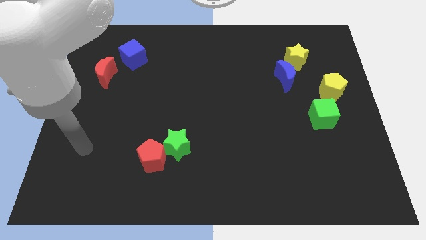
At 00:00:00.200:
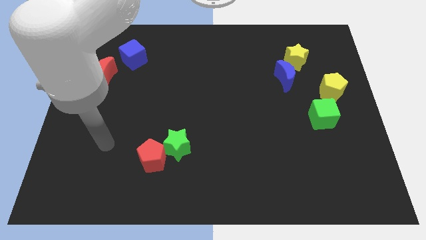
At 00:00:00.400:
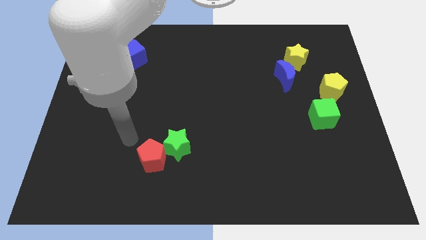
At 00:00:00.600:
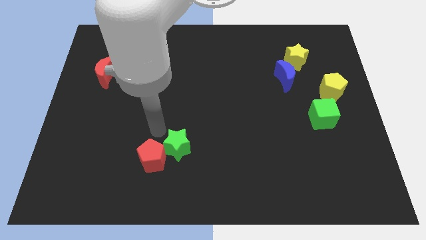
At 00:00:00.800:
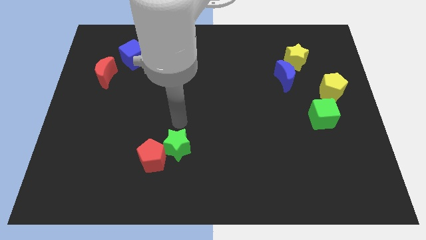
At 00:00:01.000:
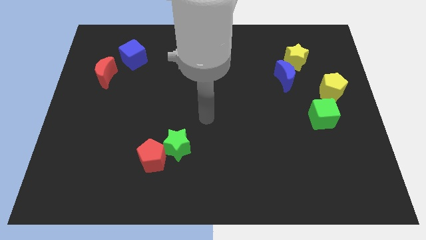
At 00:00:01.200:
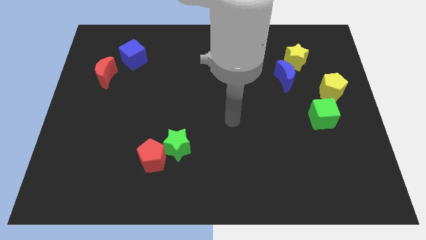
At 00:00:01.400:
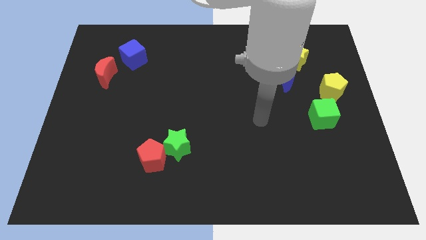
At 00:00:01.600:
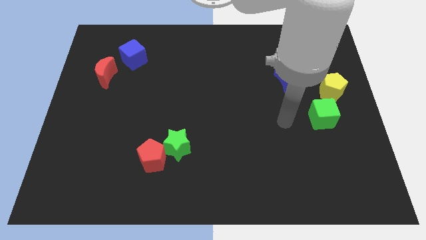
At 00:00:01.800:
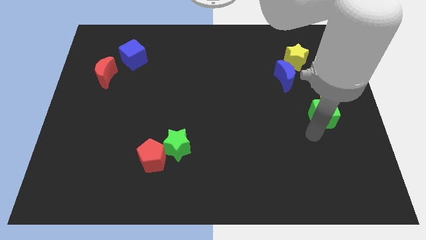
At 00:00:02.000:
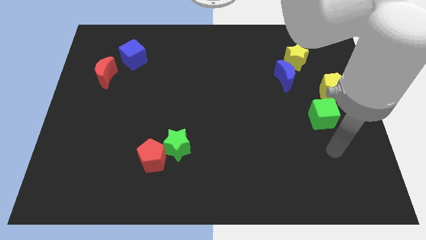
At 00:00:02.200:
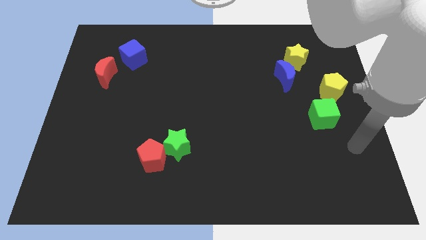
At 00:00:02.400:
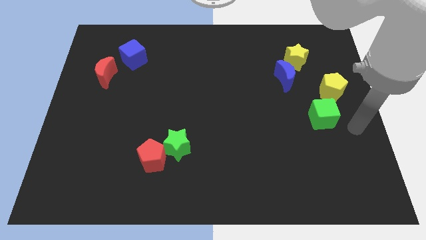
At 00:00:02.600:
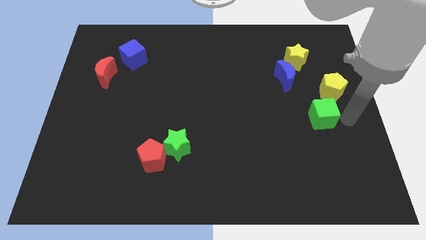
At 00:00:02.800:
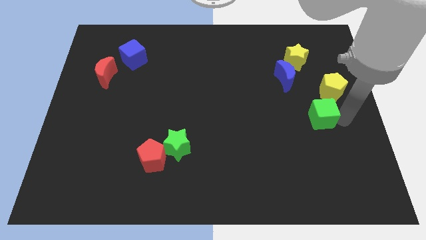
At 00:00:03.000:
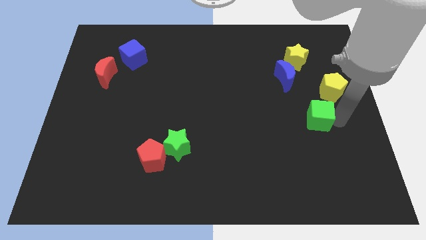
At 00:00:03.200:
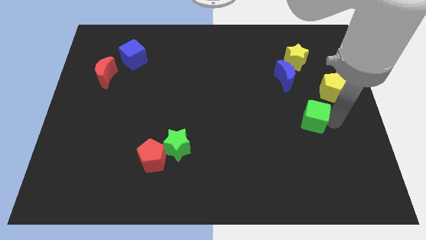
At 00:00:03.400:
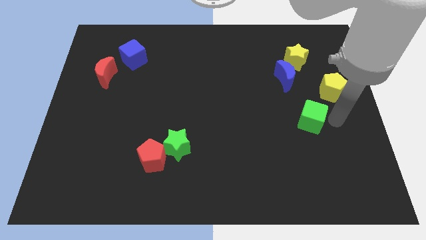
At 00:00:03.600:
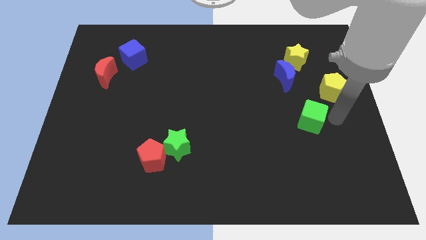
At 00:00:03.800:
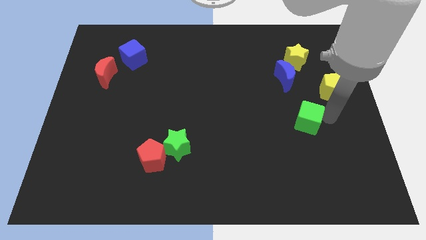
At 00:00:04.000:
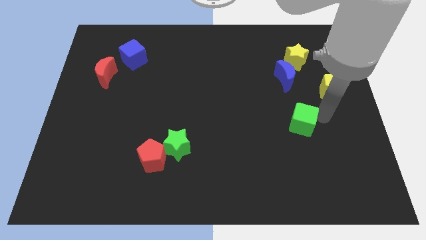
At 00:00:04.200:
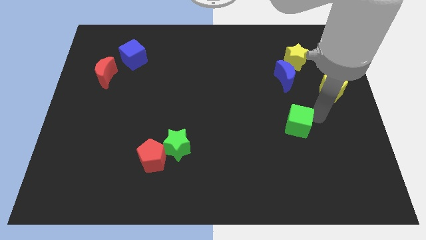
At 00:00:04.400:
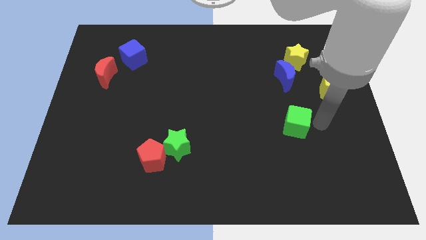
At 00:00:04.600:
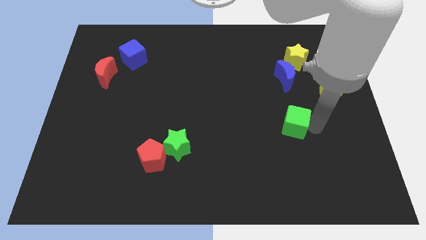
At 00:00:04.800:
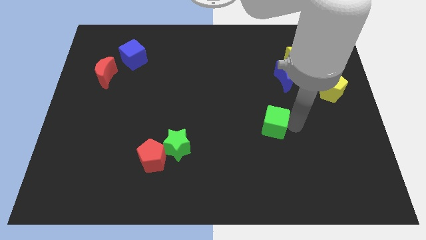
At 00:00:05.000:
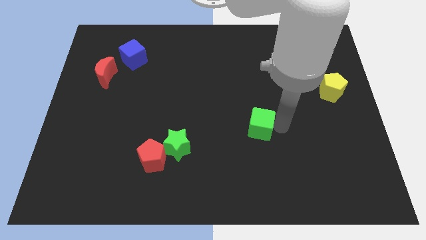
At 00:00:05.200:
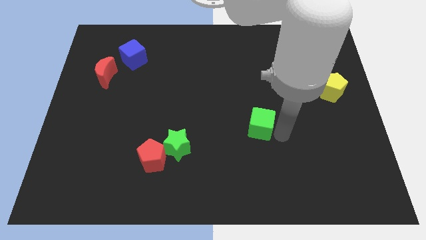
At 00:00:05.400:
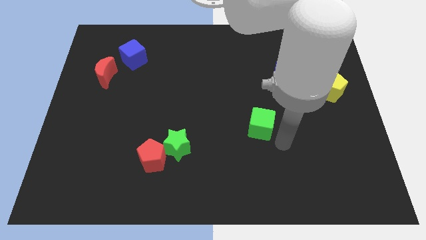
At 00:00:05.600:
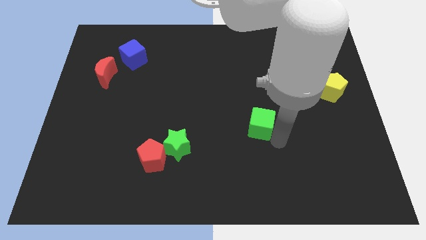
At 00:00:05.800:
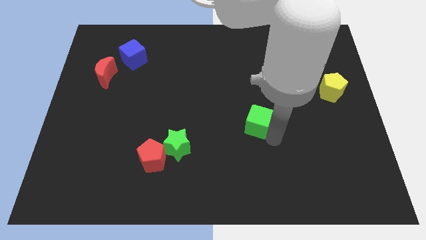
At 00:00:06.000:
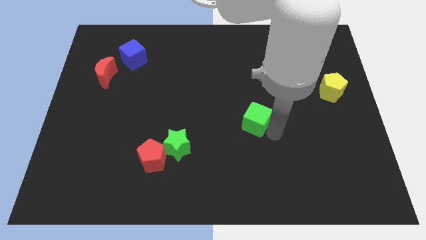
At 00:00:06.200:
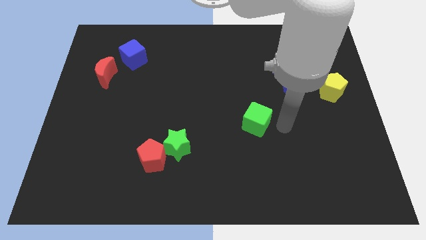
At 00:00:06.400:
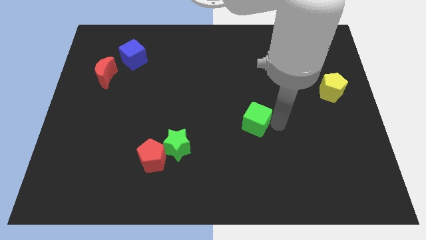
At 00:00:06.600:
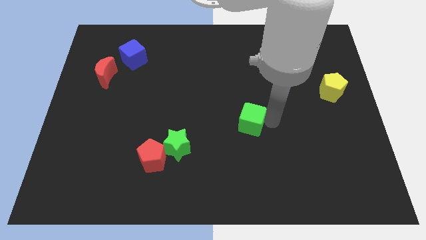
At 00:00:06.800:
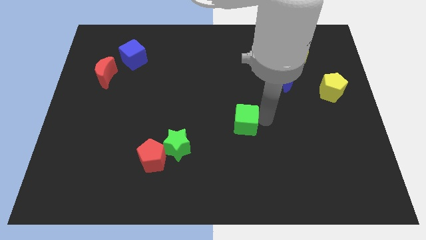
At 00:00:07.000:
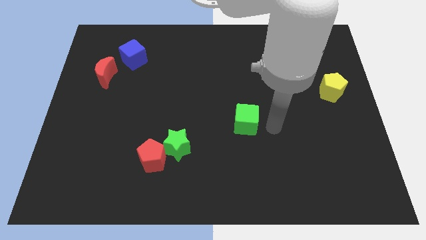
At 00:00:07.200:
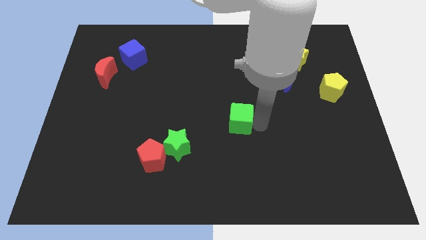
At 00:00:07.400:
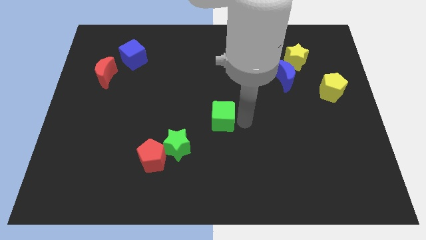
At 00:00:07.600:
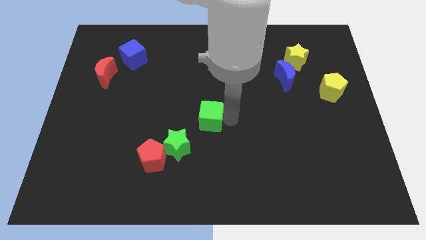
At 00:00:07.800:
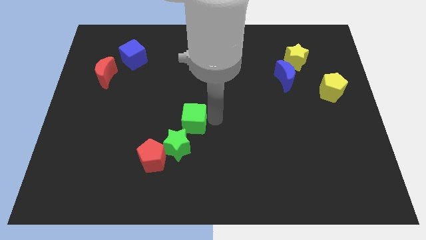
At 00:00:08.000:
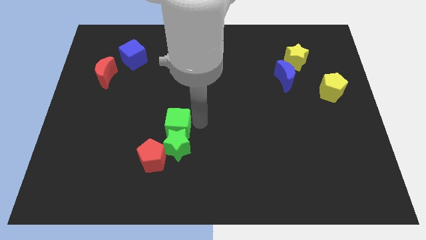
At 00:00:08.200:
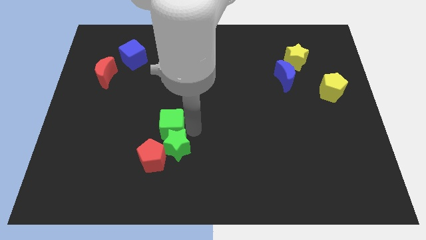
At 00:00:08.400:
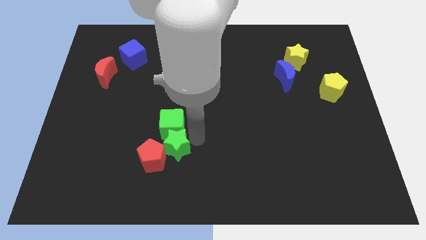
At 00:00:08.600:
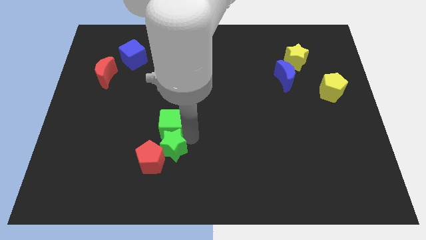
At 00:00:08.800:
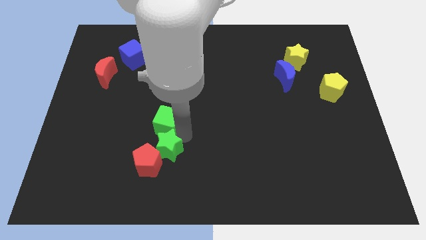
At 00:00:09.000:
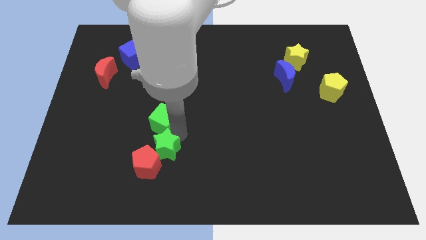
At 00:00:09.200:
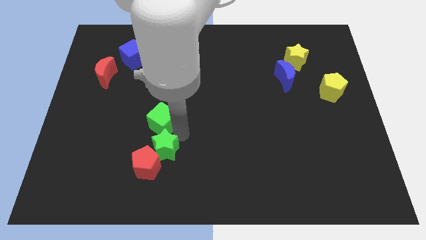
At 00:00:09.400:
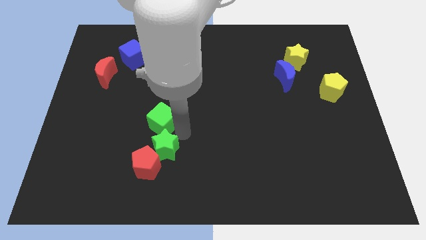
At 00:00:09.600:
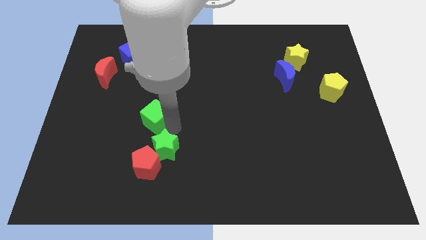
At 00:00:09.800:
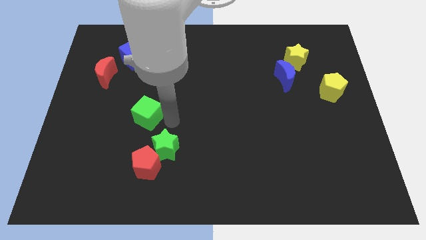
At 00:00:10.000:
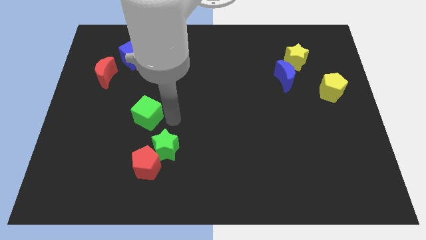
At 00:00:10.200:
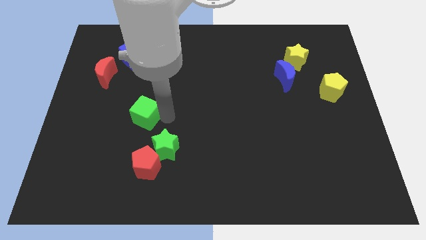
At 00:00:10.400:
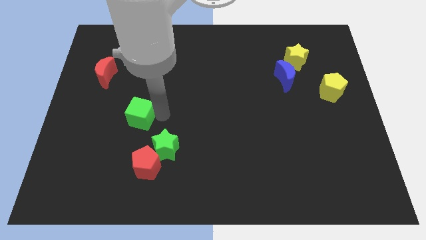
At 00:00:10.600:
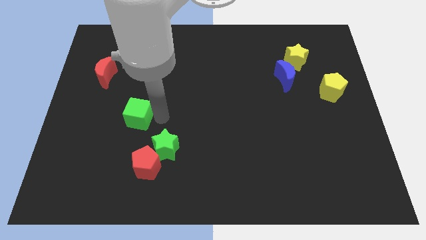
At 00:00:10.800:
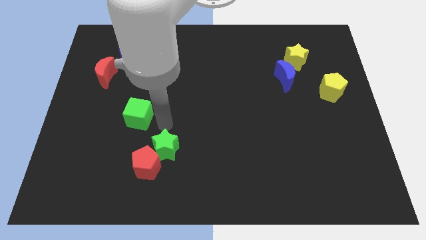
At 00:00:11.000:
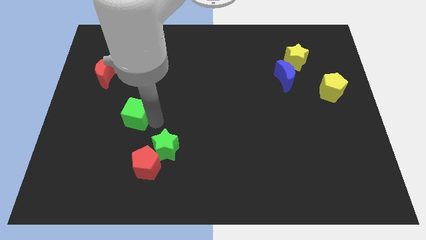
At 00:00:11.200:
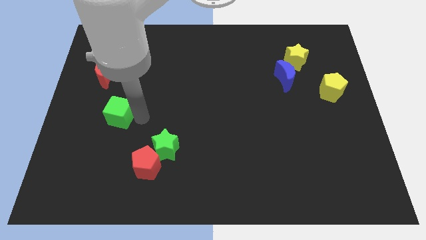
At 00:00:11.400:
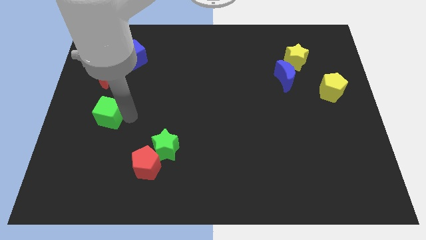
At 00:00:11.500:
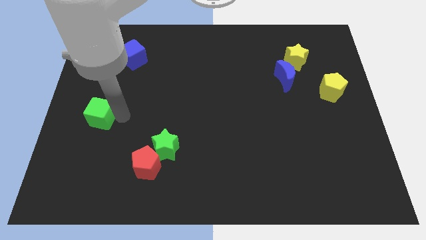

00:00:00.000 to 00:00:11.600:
push the green cube to the left side of the board

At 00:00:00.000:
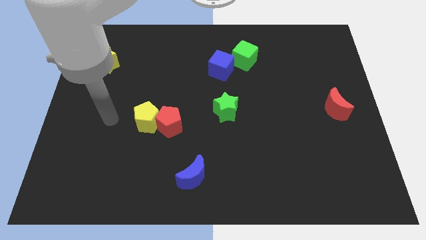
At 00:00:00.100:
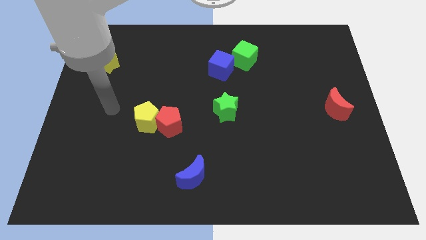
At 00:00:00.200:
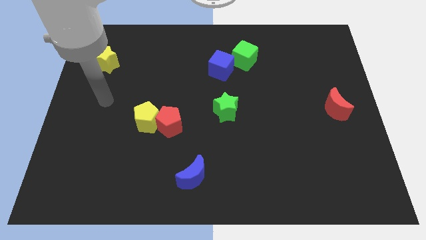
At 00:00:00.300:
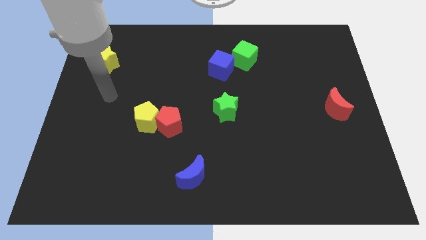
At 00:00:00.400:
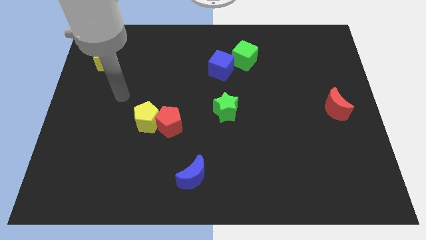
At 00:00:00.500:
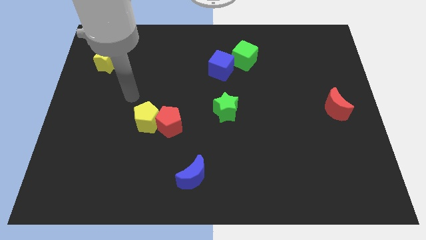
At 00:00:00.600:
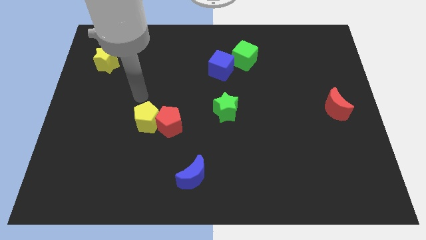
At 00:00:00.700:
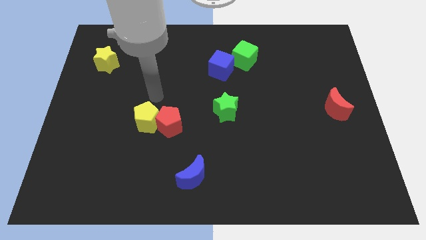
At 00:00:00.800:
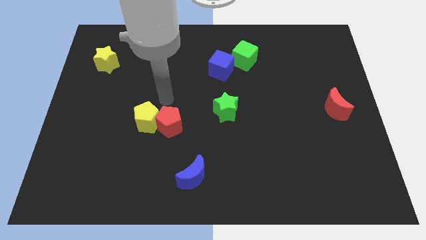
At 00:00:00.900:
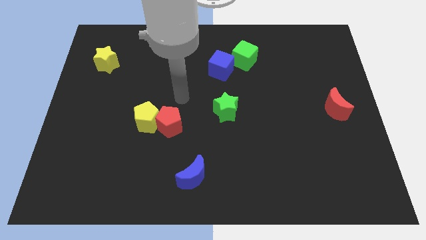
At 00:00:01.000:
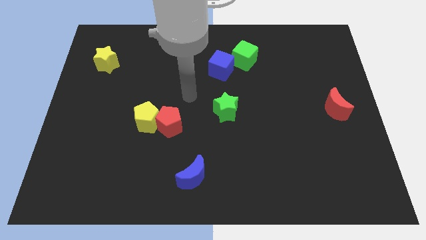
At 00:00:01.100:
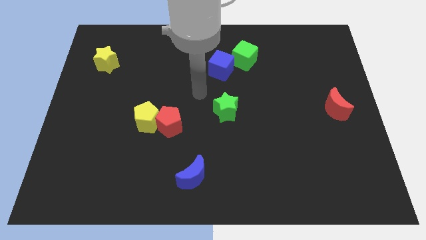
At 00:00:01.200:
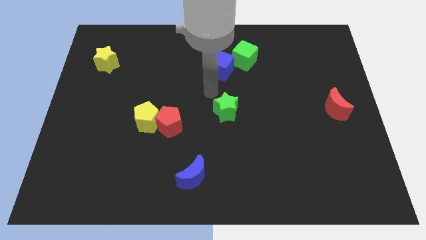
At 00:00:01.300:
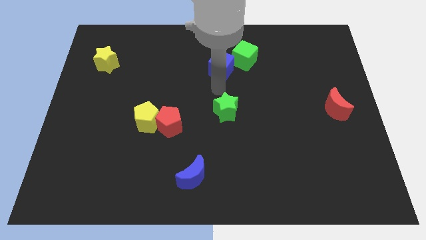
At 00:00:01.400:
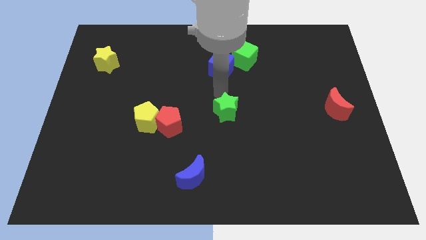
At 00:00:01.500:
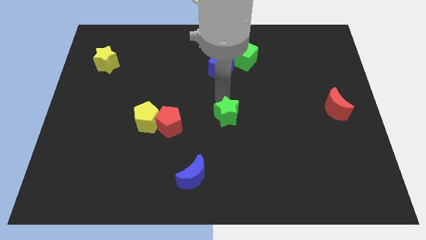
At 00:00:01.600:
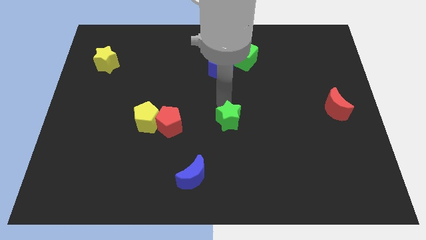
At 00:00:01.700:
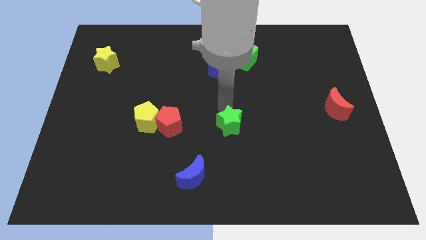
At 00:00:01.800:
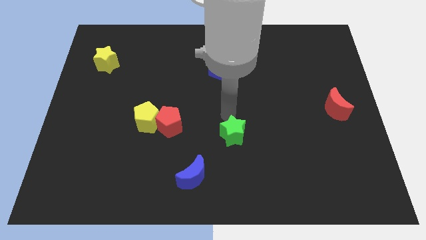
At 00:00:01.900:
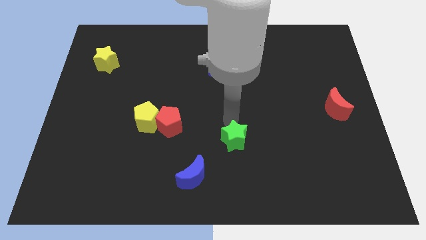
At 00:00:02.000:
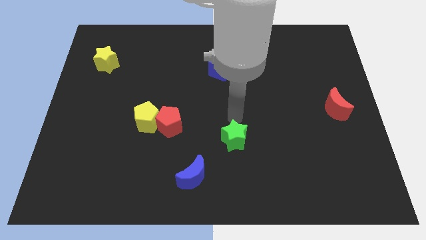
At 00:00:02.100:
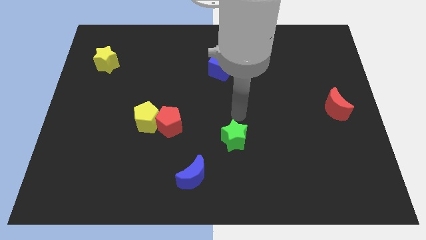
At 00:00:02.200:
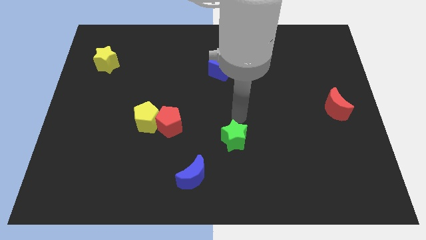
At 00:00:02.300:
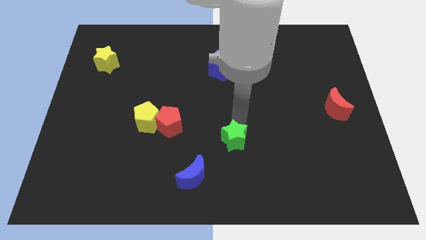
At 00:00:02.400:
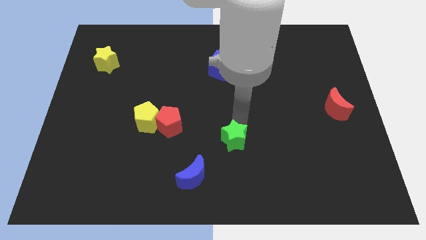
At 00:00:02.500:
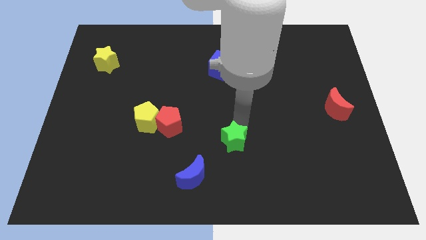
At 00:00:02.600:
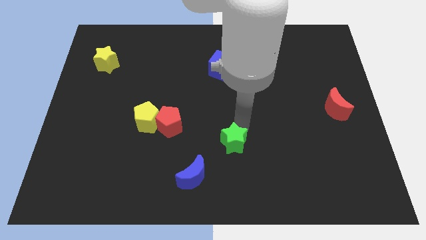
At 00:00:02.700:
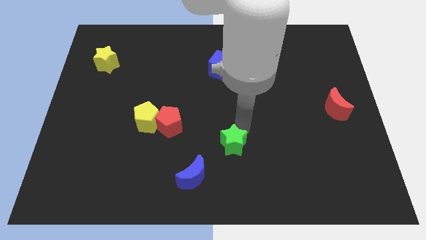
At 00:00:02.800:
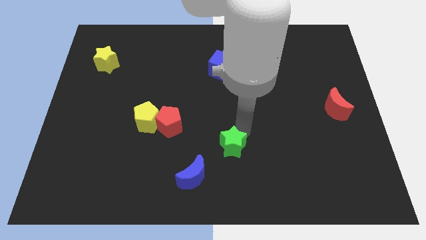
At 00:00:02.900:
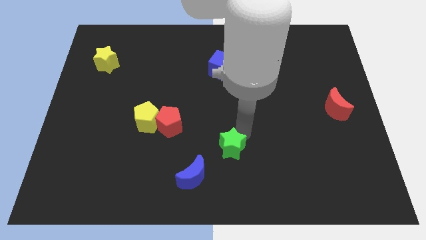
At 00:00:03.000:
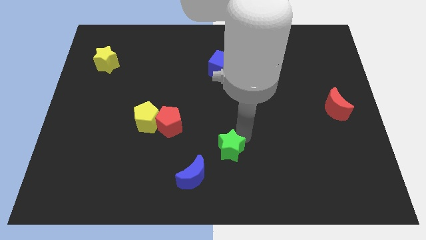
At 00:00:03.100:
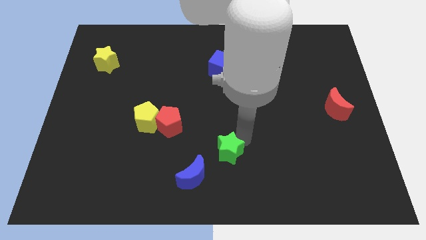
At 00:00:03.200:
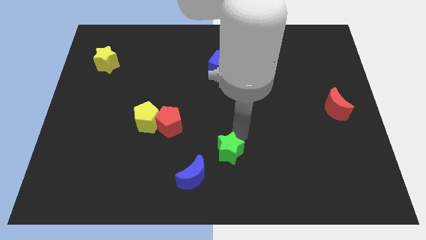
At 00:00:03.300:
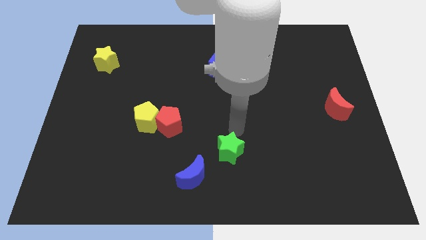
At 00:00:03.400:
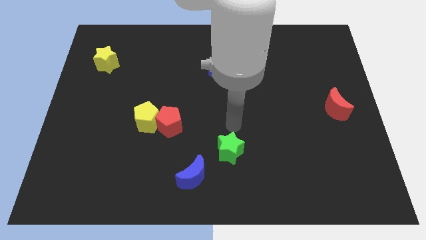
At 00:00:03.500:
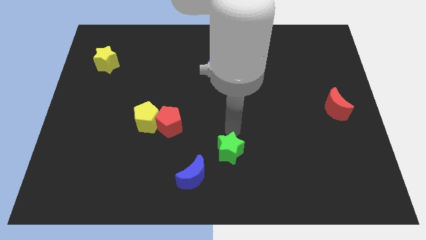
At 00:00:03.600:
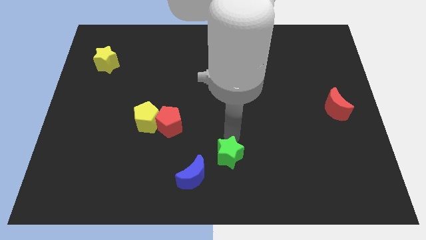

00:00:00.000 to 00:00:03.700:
move the green star to the bottom side
